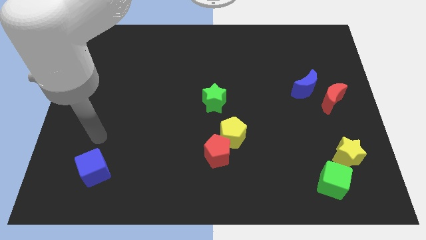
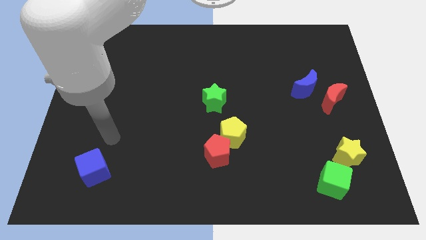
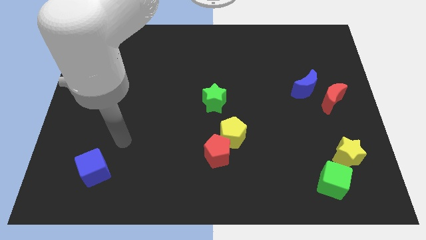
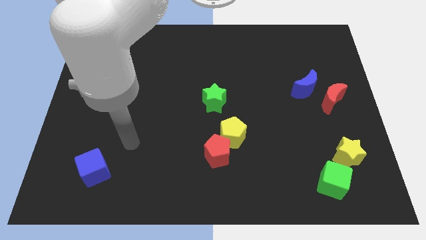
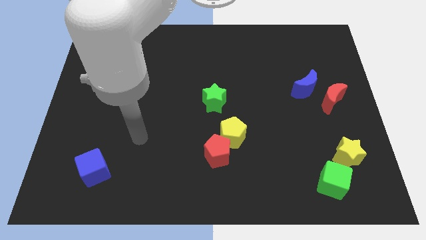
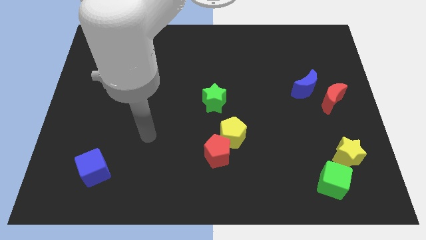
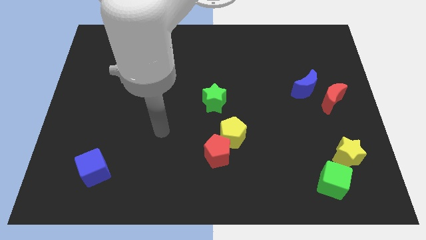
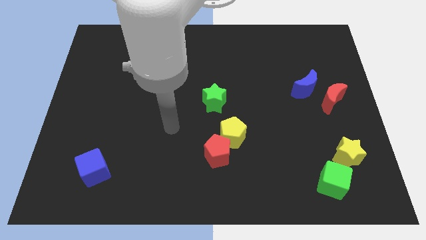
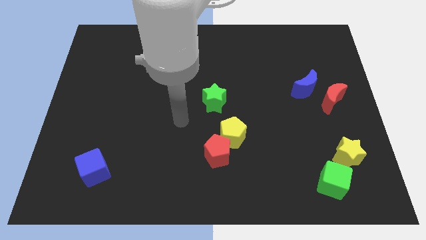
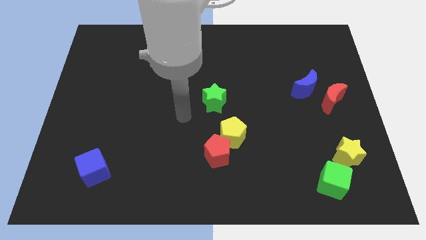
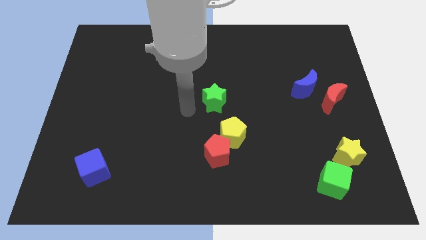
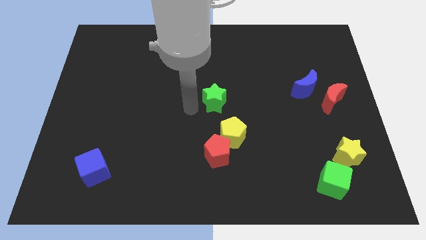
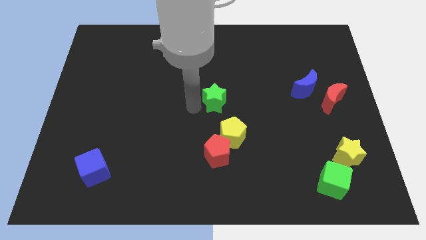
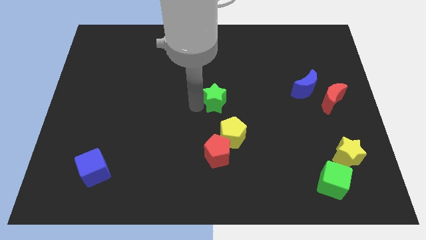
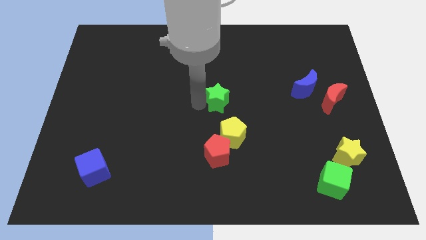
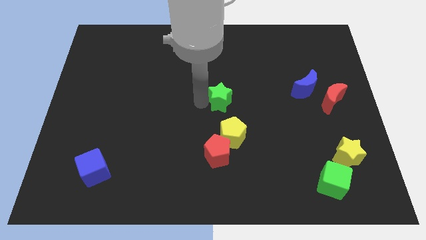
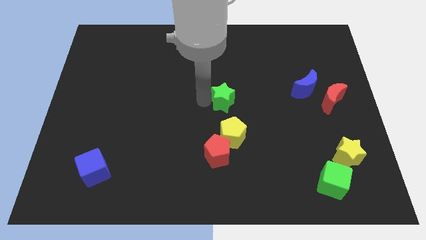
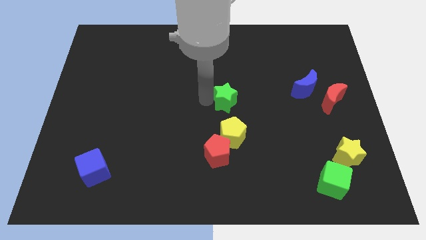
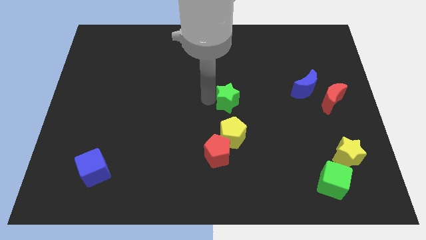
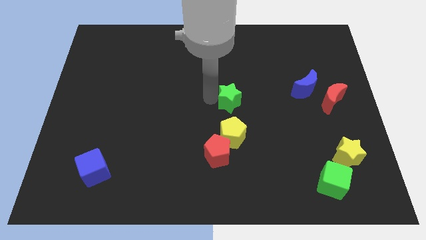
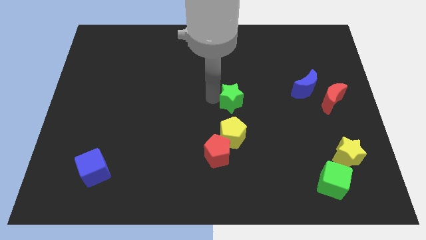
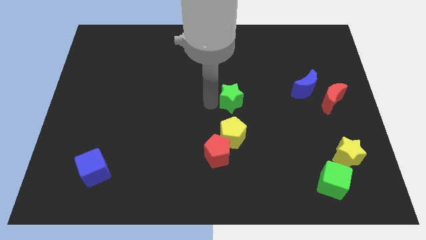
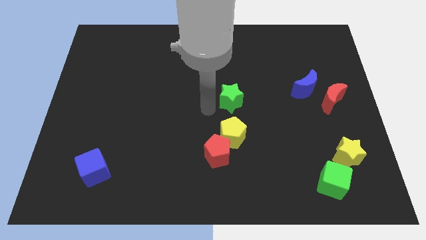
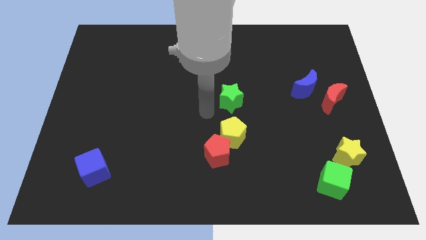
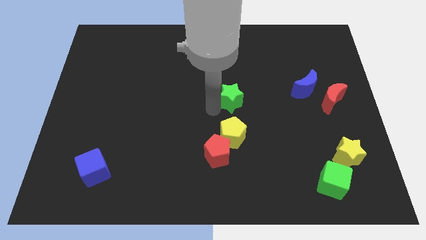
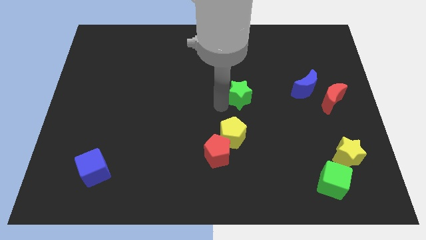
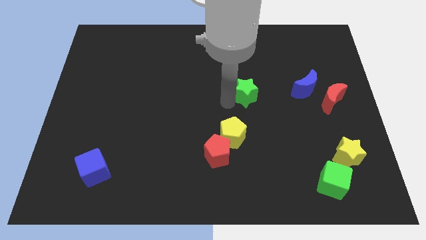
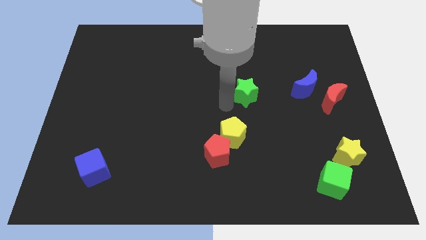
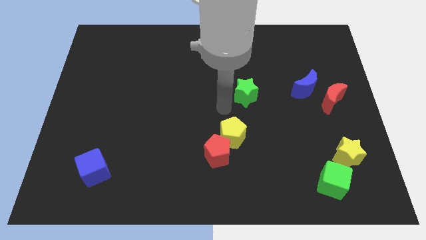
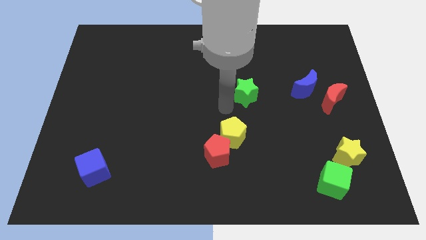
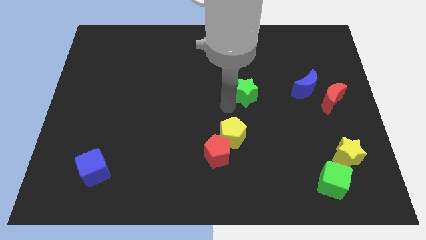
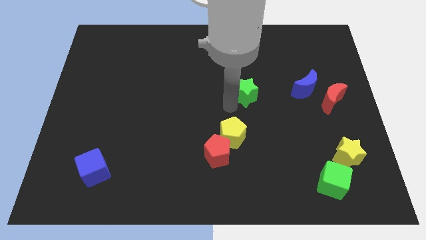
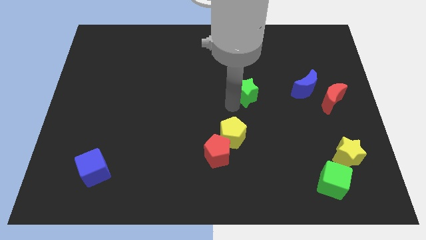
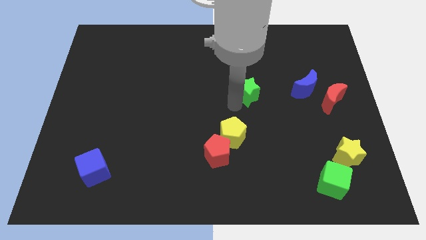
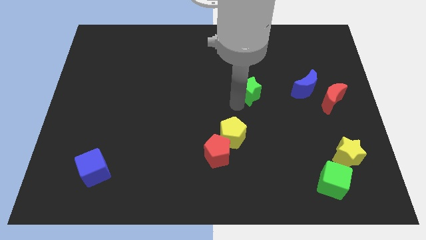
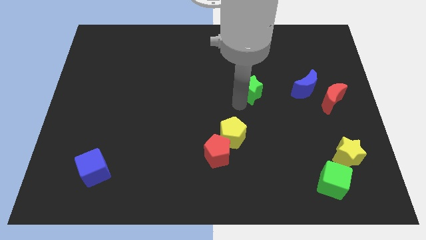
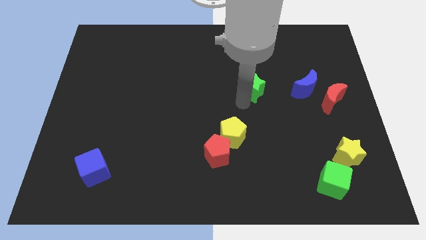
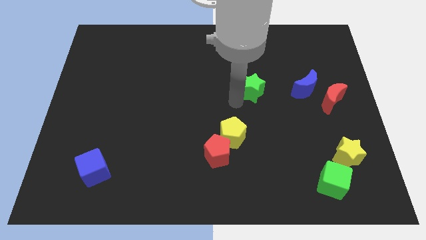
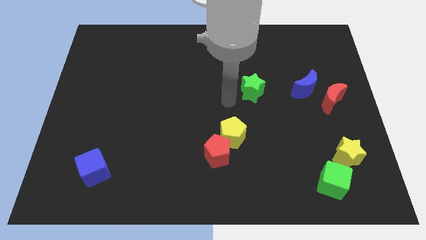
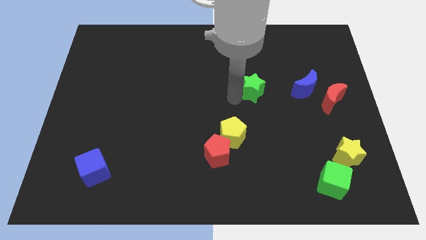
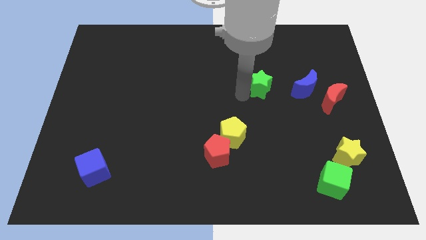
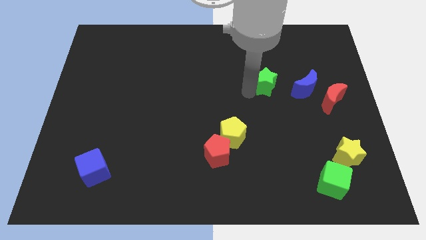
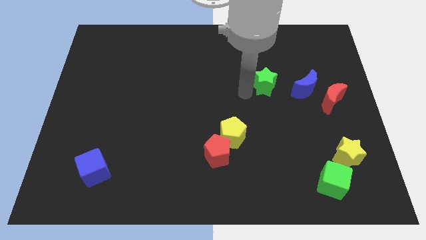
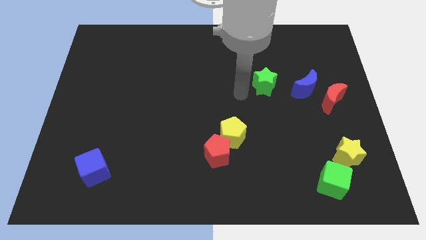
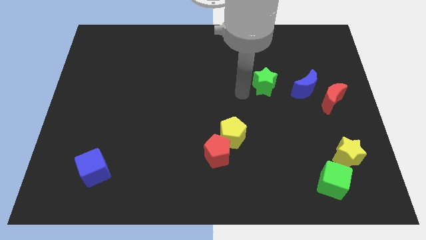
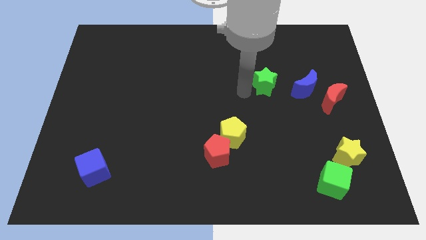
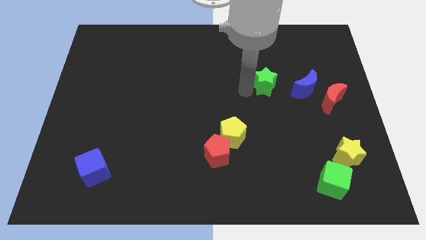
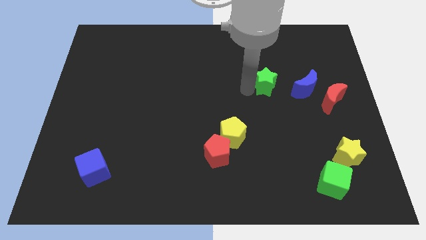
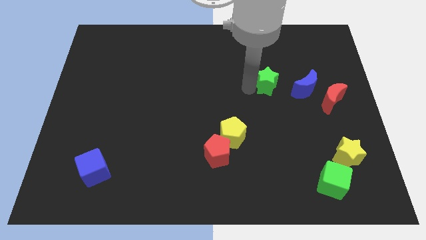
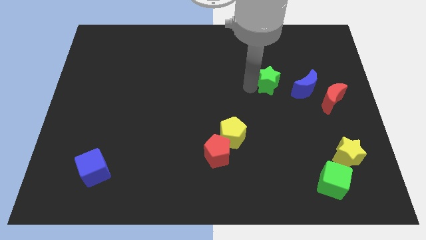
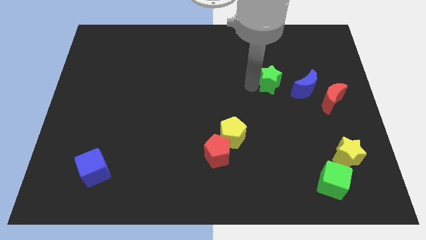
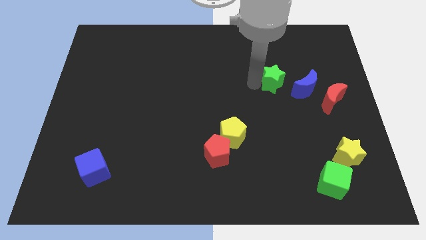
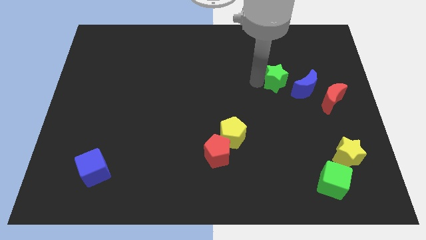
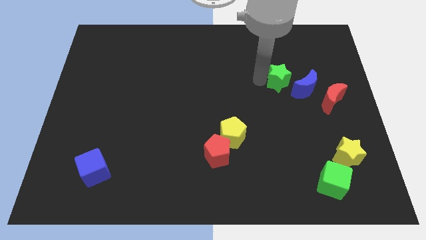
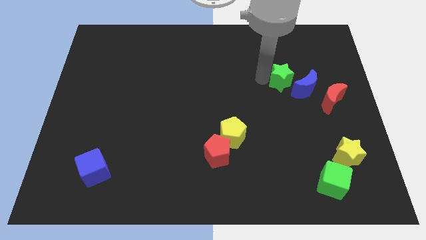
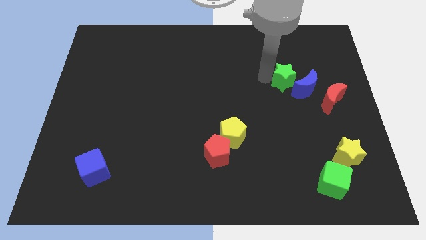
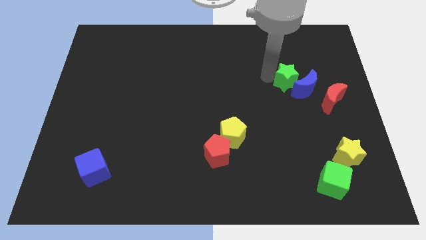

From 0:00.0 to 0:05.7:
push the green star to the top left side of the red moon
